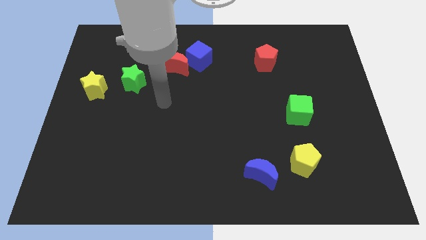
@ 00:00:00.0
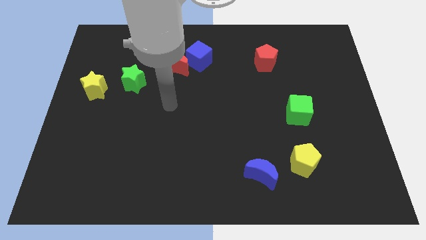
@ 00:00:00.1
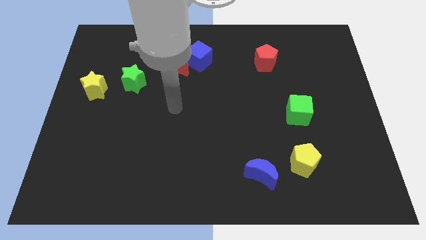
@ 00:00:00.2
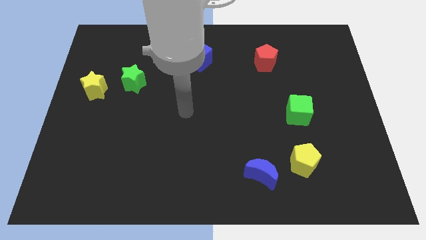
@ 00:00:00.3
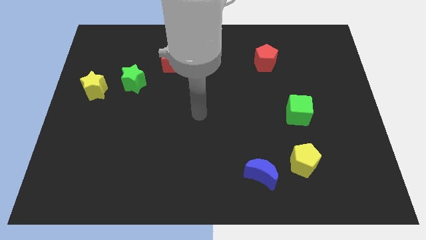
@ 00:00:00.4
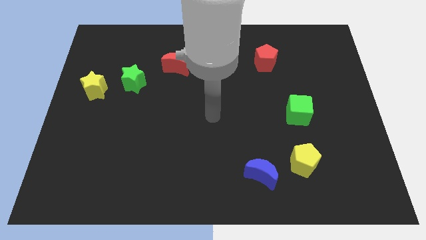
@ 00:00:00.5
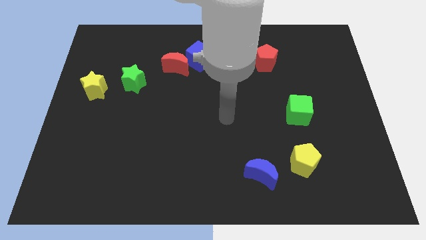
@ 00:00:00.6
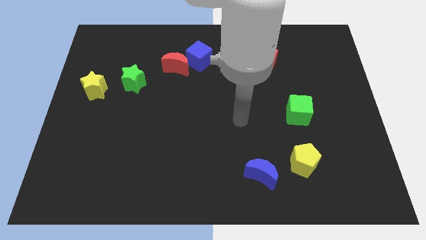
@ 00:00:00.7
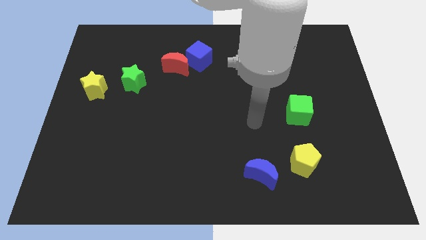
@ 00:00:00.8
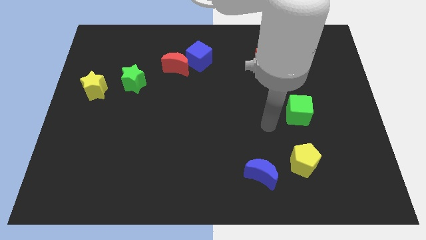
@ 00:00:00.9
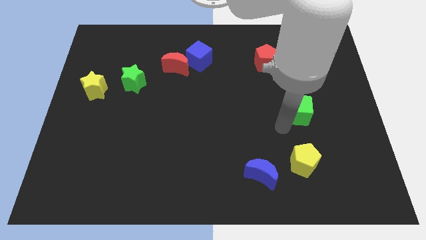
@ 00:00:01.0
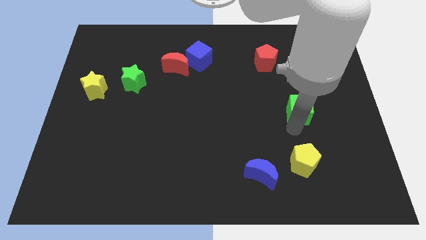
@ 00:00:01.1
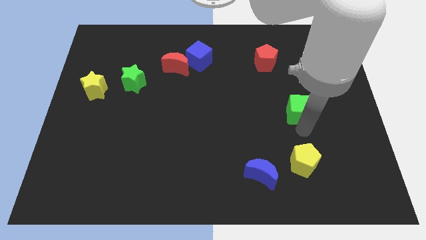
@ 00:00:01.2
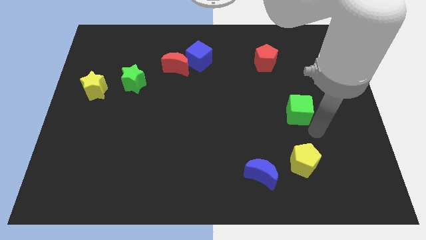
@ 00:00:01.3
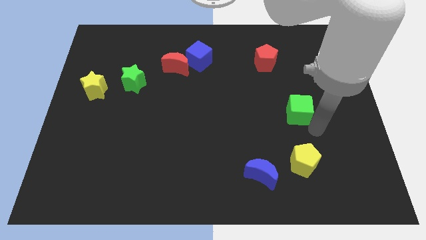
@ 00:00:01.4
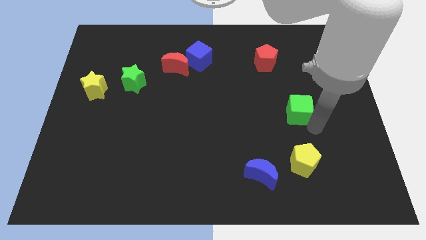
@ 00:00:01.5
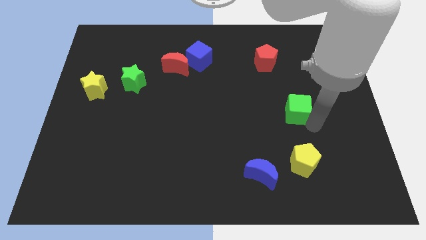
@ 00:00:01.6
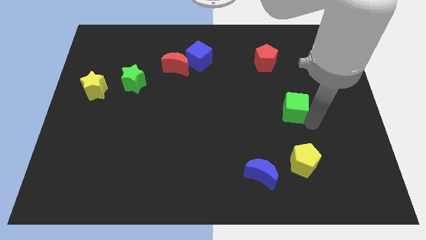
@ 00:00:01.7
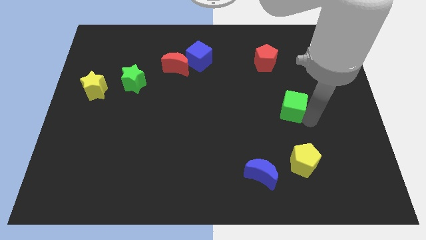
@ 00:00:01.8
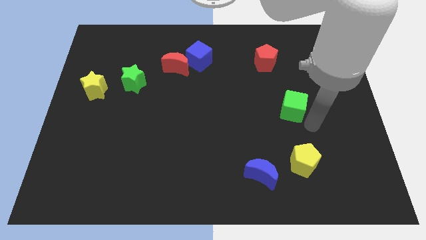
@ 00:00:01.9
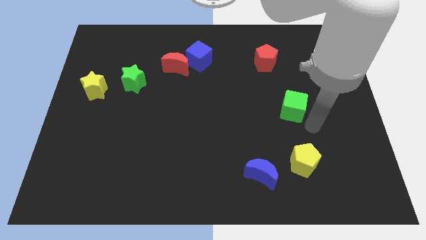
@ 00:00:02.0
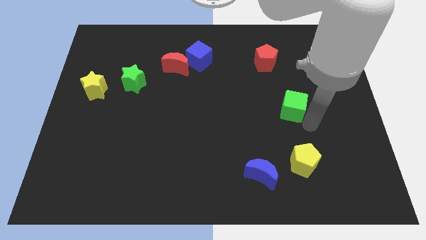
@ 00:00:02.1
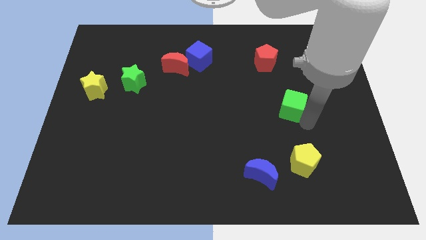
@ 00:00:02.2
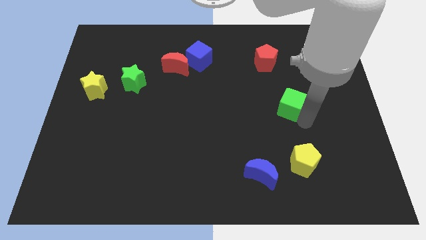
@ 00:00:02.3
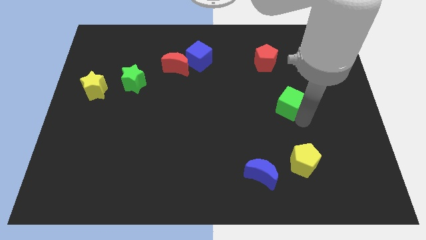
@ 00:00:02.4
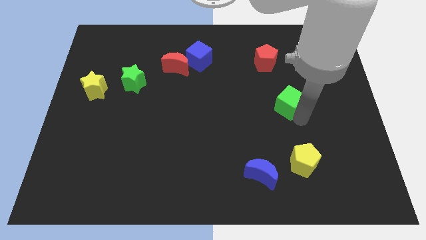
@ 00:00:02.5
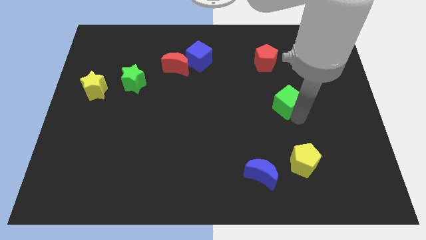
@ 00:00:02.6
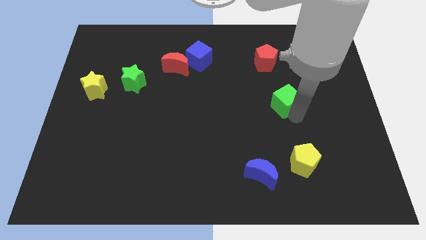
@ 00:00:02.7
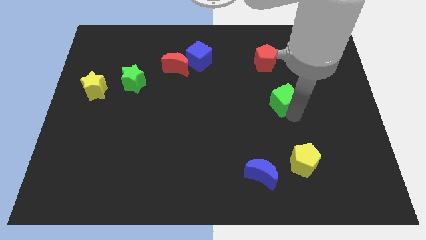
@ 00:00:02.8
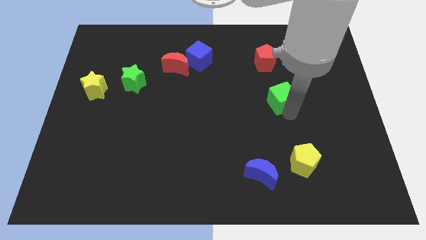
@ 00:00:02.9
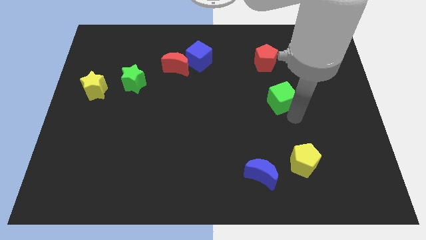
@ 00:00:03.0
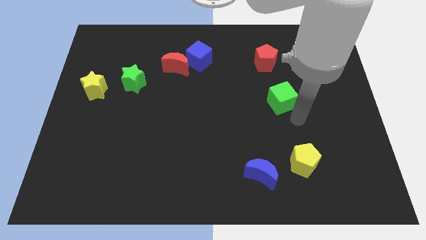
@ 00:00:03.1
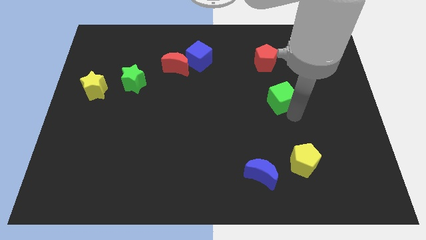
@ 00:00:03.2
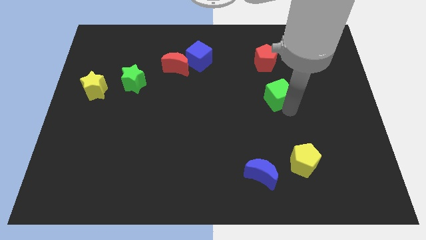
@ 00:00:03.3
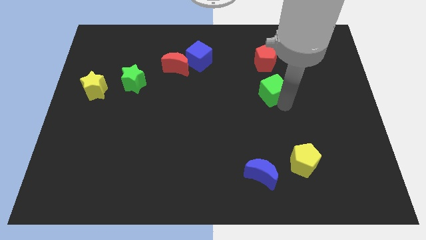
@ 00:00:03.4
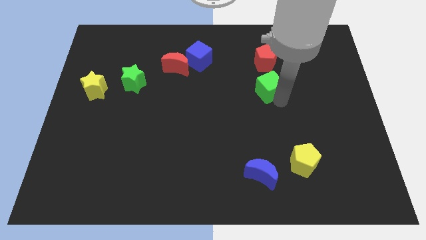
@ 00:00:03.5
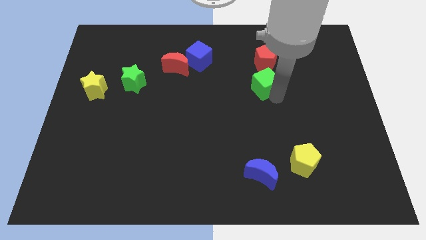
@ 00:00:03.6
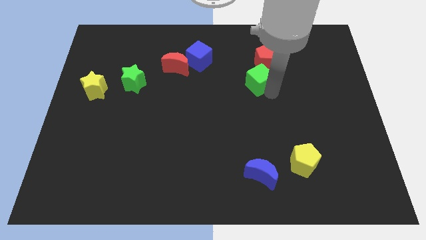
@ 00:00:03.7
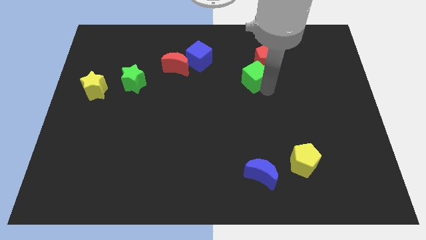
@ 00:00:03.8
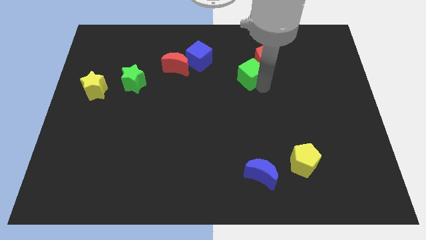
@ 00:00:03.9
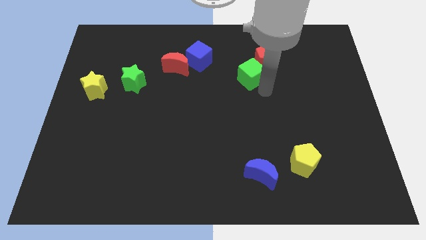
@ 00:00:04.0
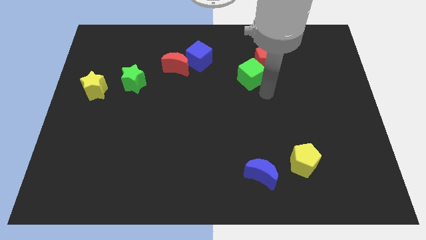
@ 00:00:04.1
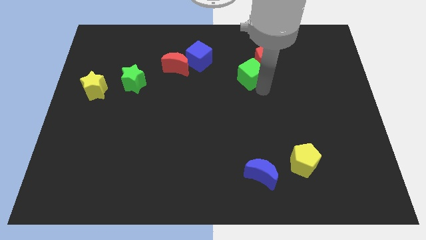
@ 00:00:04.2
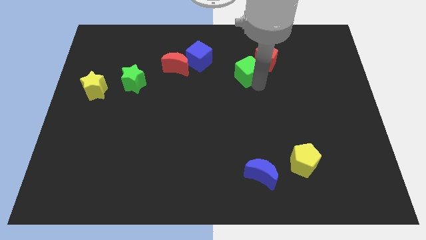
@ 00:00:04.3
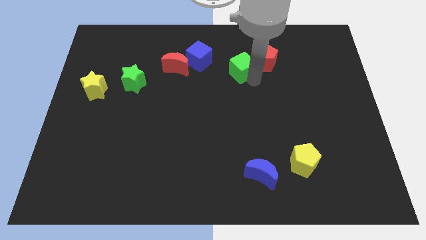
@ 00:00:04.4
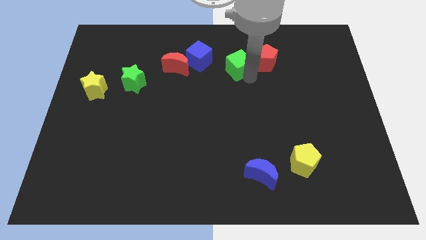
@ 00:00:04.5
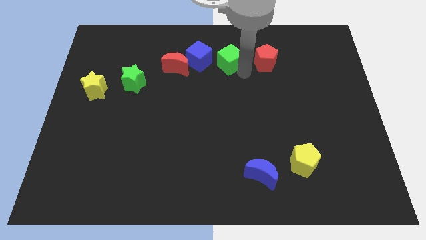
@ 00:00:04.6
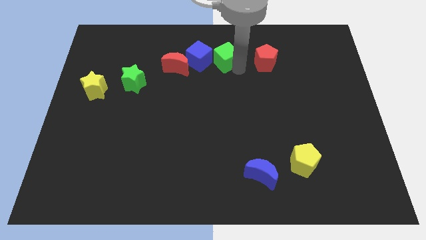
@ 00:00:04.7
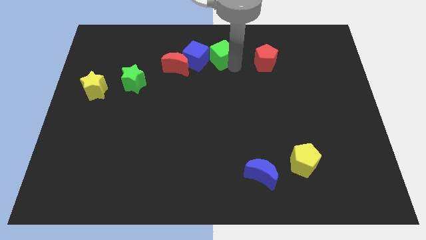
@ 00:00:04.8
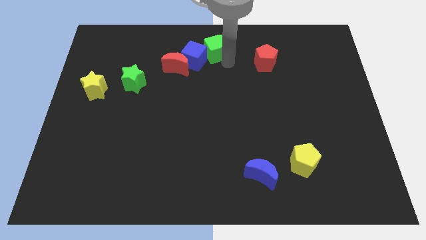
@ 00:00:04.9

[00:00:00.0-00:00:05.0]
put the green cube to the towards your base

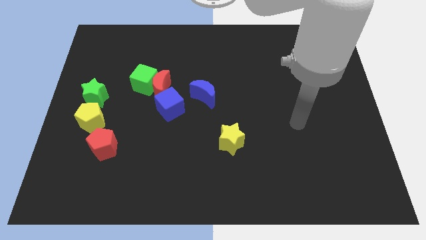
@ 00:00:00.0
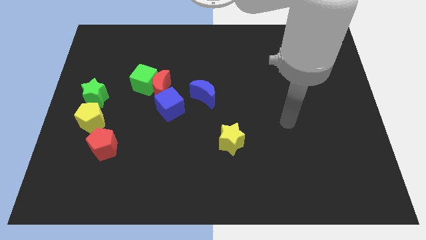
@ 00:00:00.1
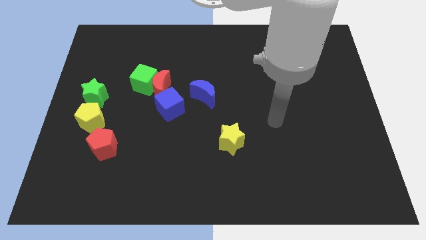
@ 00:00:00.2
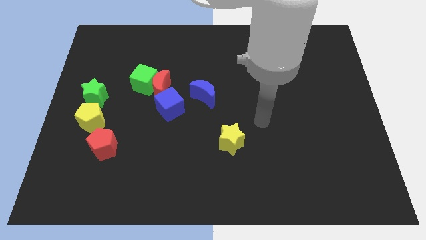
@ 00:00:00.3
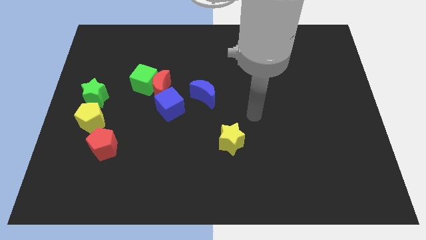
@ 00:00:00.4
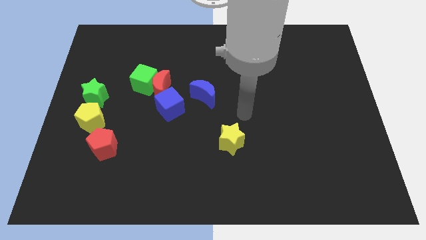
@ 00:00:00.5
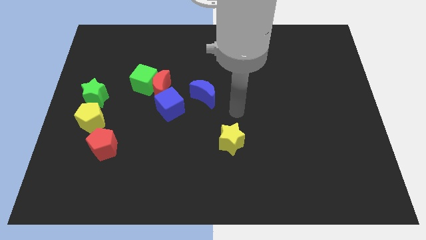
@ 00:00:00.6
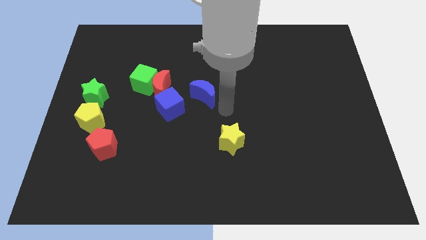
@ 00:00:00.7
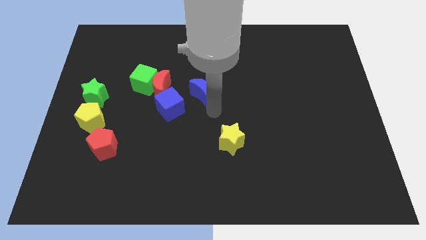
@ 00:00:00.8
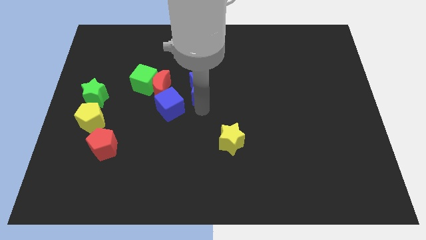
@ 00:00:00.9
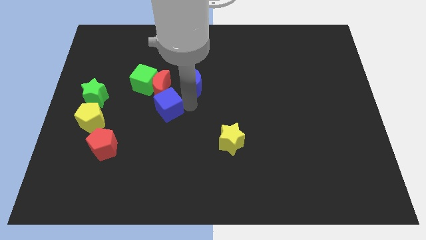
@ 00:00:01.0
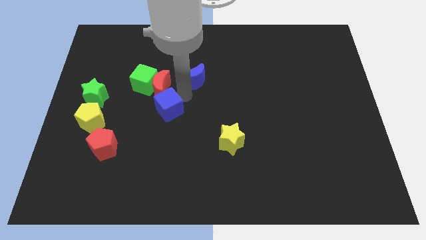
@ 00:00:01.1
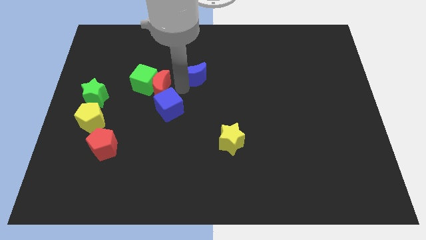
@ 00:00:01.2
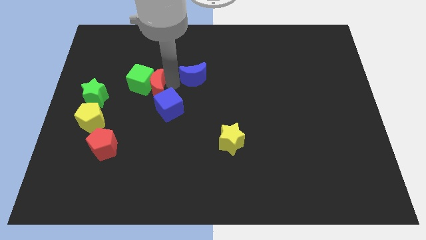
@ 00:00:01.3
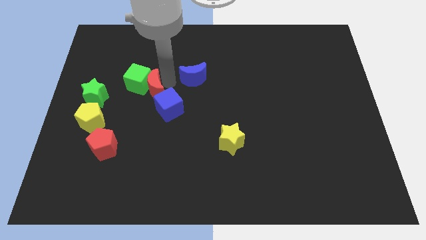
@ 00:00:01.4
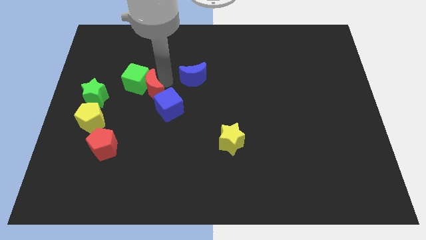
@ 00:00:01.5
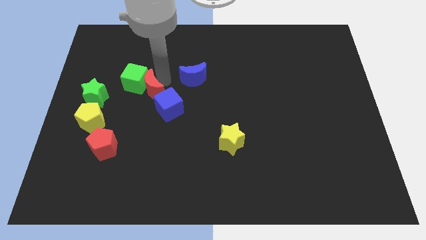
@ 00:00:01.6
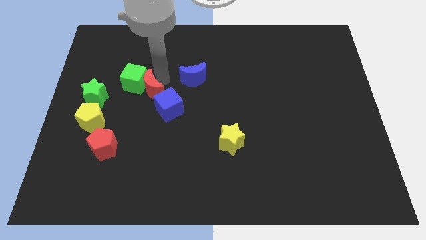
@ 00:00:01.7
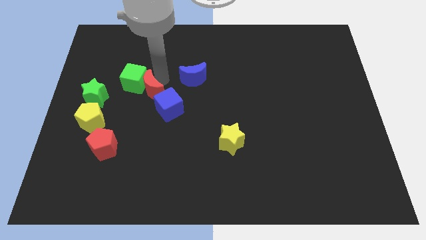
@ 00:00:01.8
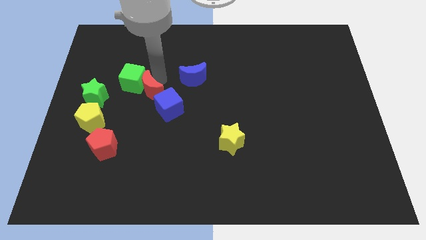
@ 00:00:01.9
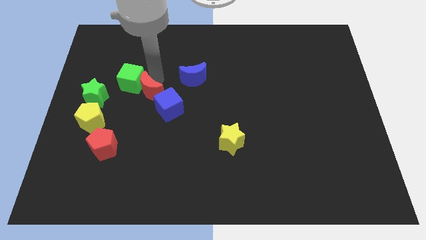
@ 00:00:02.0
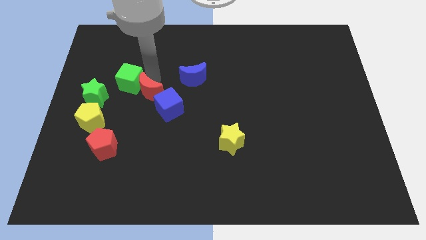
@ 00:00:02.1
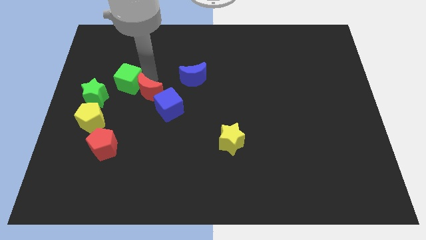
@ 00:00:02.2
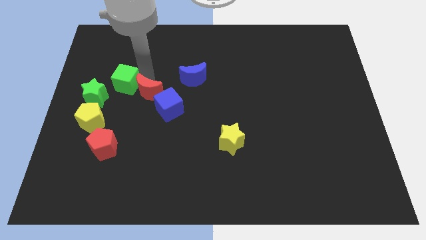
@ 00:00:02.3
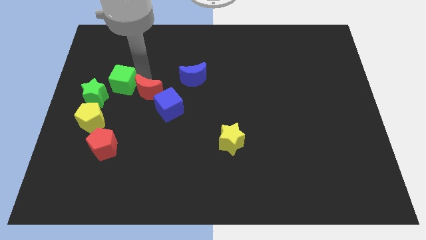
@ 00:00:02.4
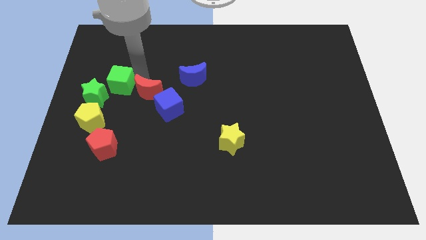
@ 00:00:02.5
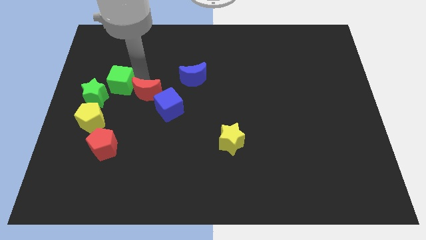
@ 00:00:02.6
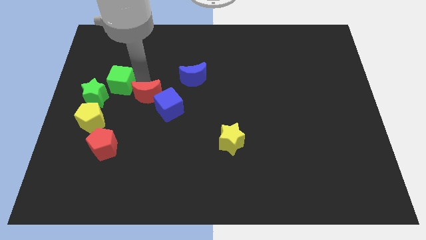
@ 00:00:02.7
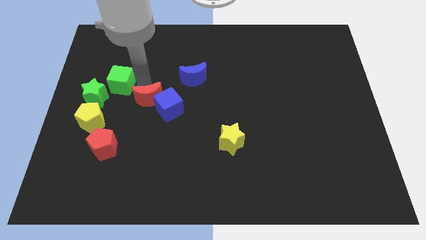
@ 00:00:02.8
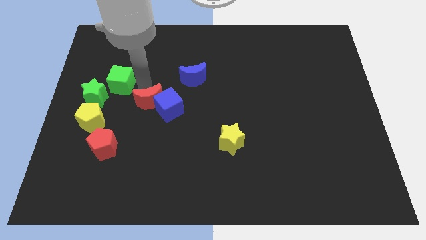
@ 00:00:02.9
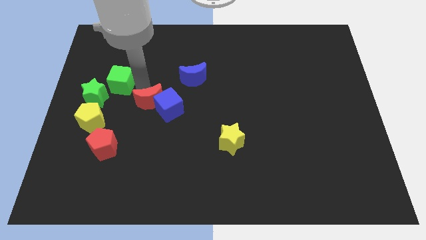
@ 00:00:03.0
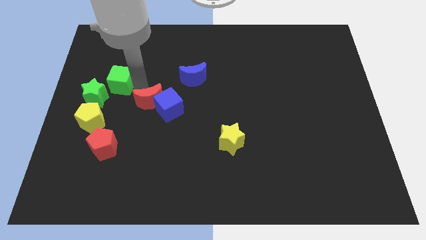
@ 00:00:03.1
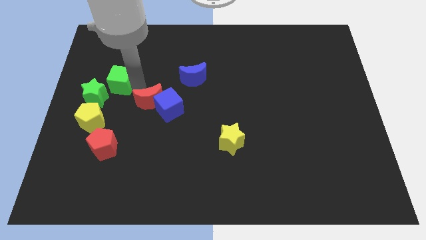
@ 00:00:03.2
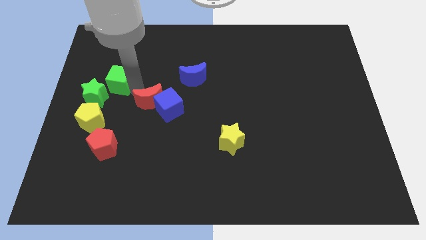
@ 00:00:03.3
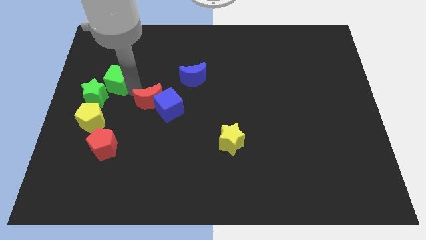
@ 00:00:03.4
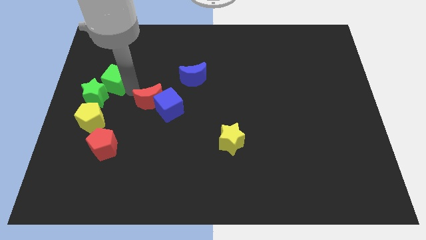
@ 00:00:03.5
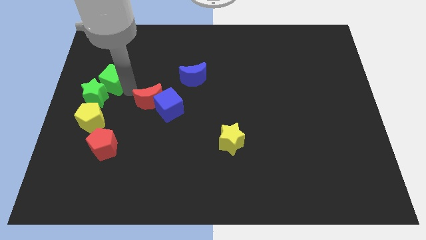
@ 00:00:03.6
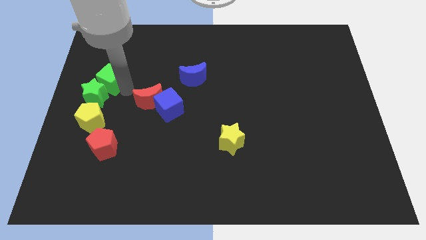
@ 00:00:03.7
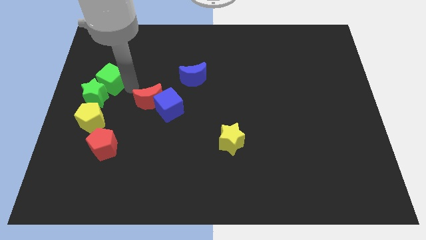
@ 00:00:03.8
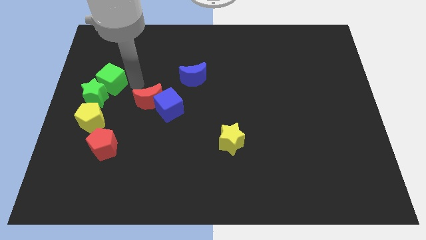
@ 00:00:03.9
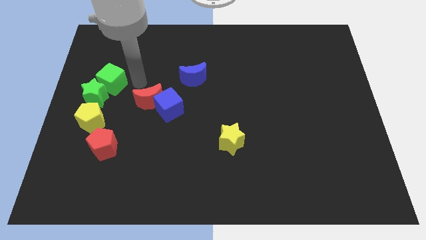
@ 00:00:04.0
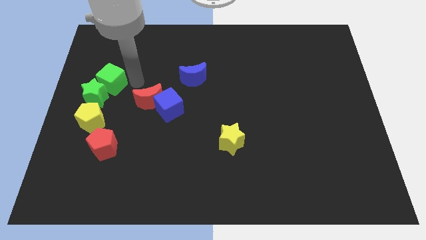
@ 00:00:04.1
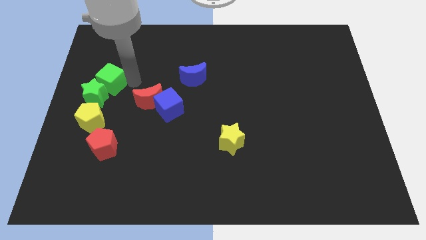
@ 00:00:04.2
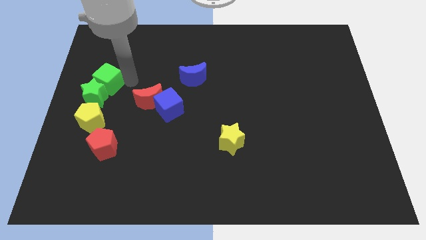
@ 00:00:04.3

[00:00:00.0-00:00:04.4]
move the green cube to the center left
